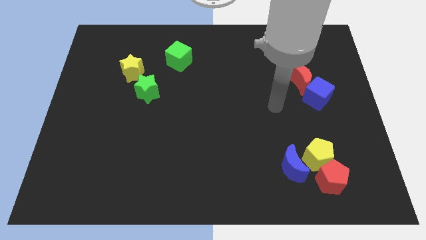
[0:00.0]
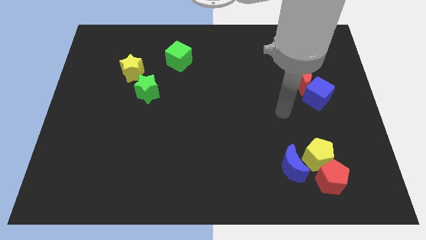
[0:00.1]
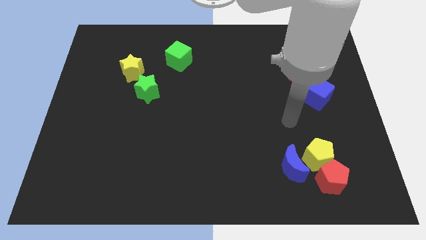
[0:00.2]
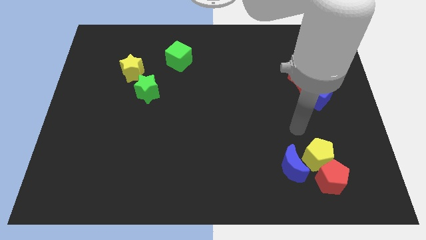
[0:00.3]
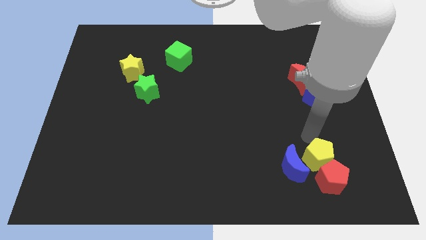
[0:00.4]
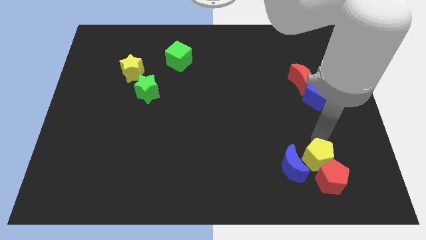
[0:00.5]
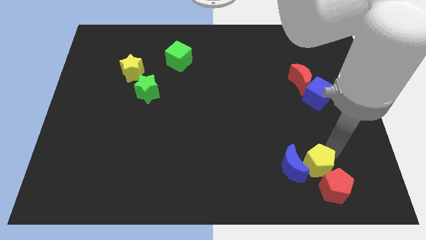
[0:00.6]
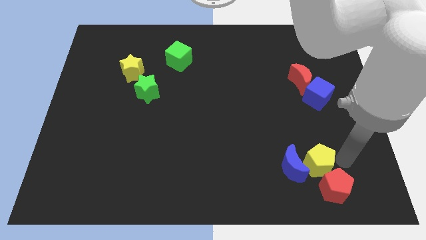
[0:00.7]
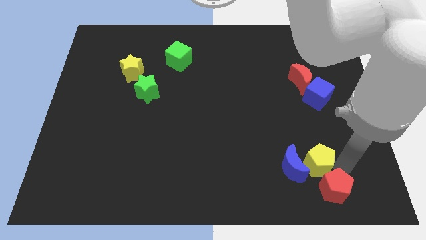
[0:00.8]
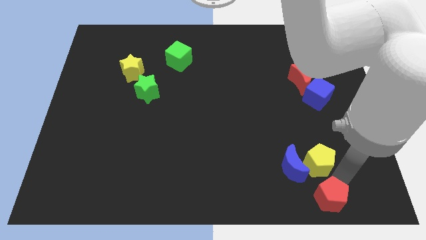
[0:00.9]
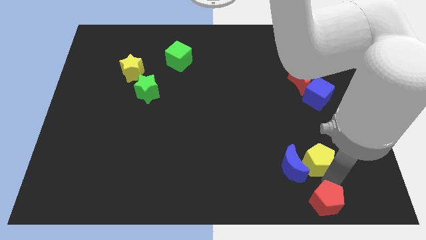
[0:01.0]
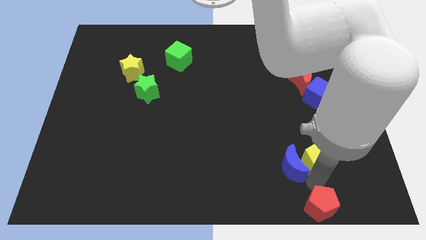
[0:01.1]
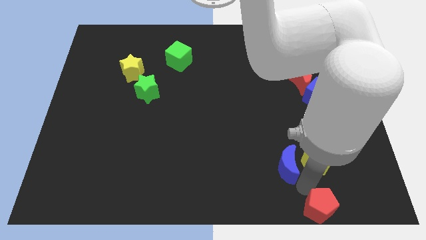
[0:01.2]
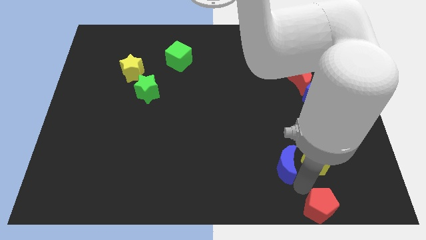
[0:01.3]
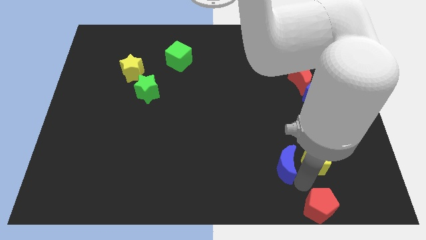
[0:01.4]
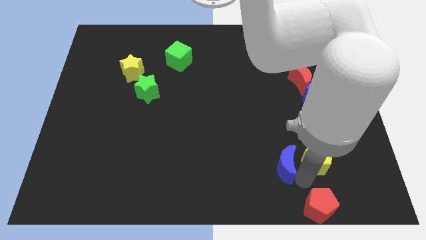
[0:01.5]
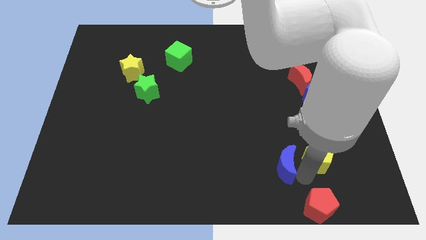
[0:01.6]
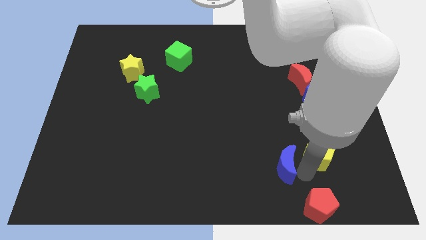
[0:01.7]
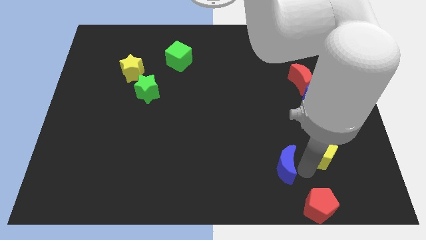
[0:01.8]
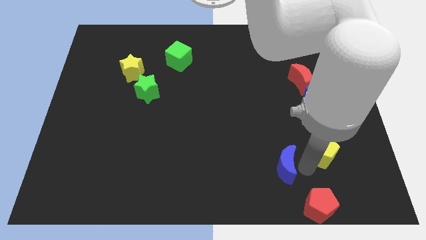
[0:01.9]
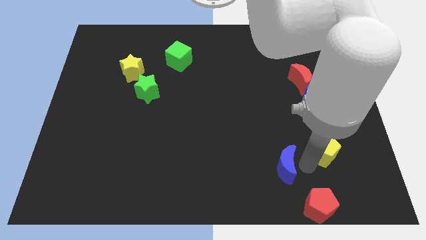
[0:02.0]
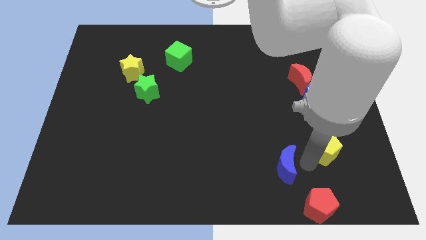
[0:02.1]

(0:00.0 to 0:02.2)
pull the yellow pentagon apart from the red pentagon and blue moon

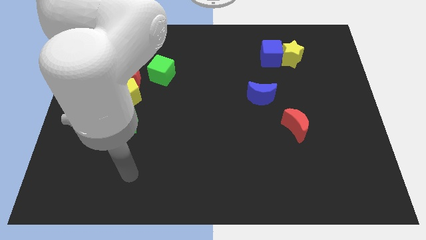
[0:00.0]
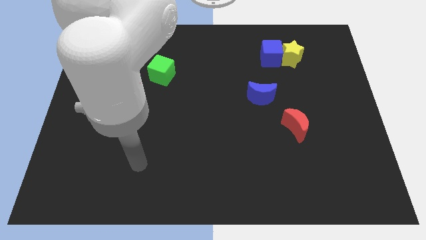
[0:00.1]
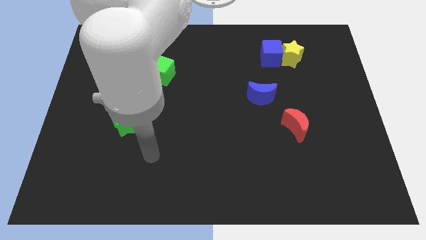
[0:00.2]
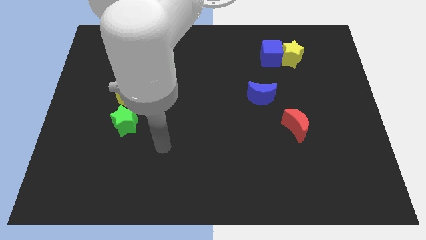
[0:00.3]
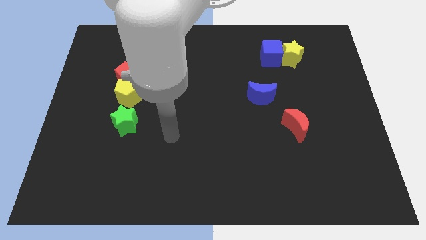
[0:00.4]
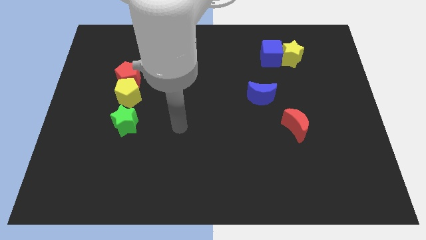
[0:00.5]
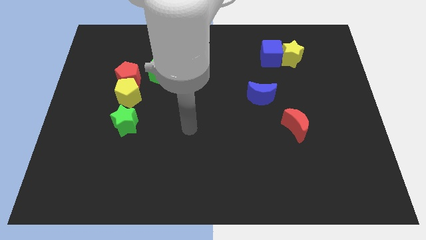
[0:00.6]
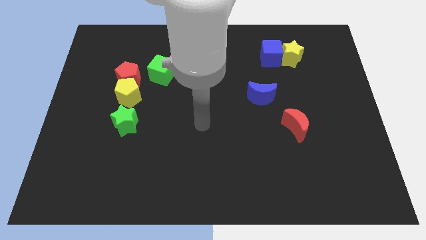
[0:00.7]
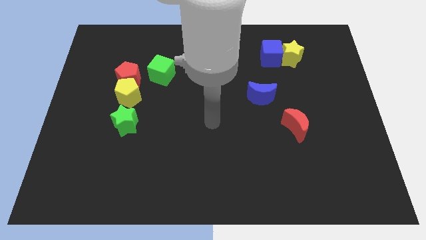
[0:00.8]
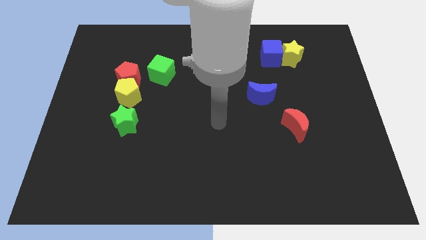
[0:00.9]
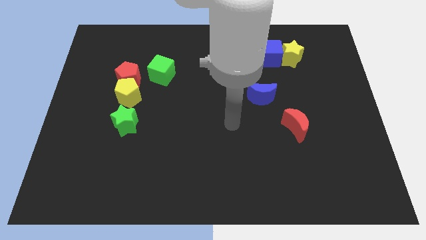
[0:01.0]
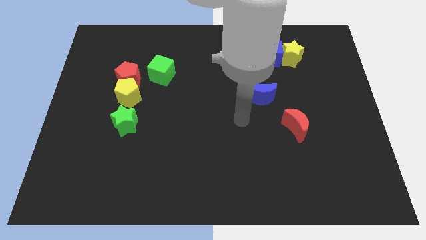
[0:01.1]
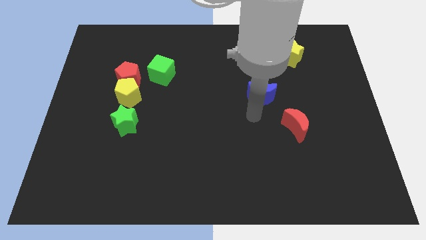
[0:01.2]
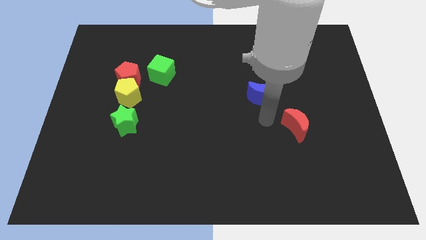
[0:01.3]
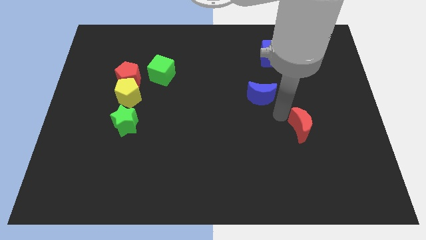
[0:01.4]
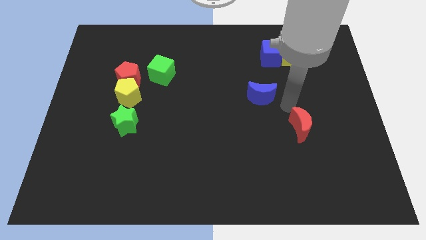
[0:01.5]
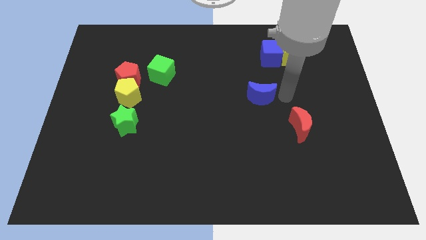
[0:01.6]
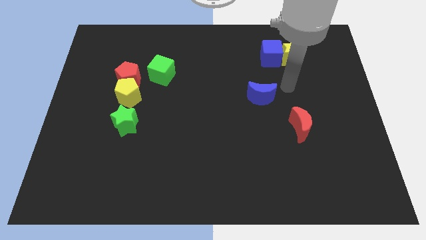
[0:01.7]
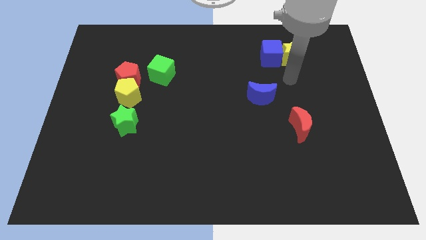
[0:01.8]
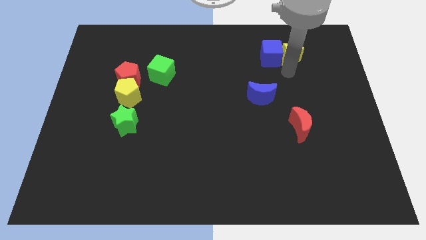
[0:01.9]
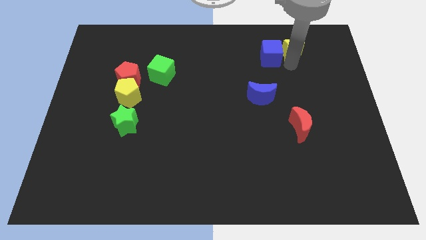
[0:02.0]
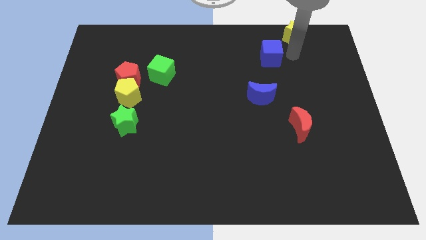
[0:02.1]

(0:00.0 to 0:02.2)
separate the blue cube from the yellow star

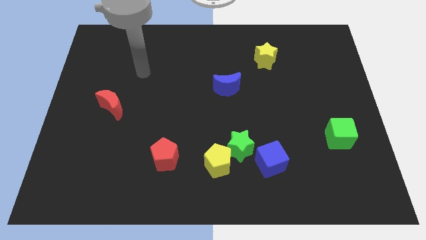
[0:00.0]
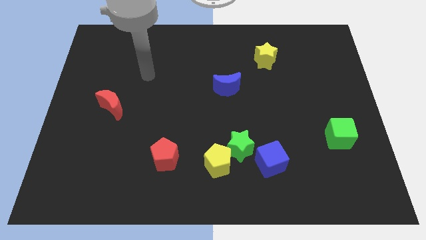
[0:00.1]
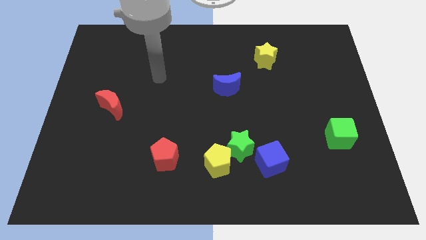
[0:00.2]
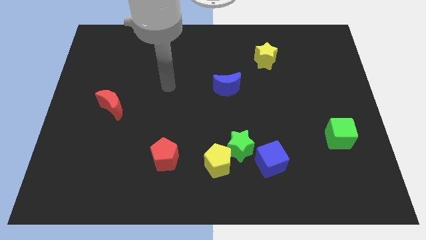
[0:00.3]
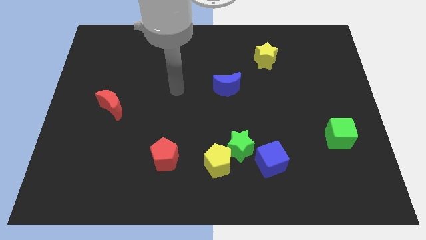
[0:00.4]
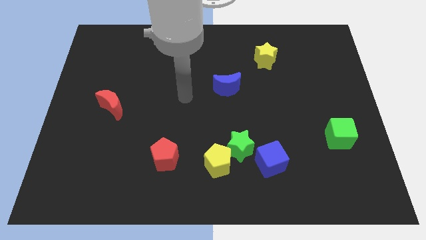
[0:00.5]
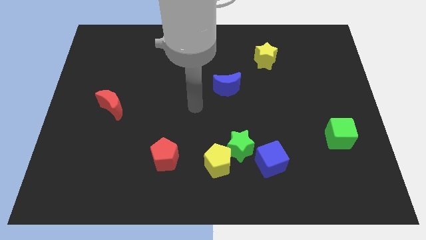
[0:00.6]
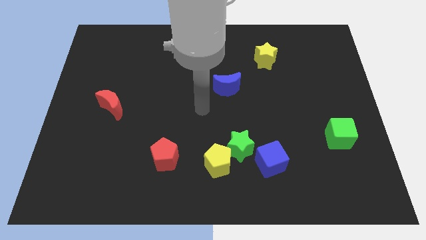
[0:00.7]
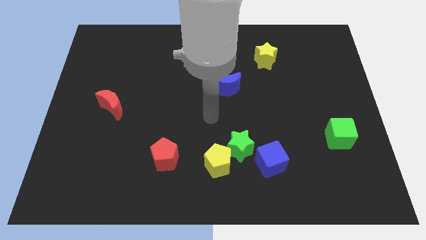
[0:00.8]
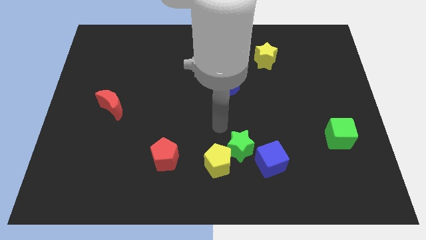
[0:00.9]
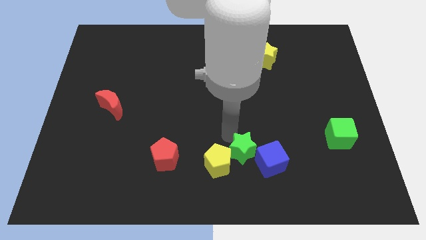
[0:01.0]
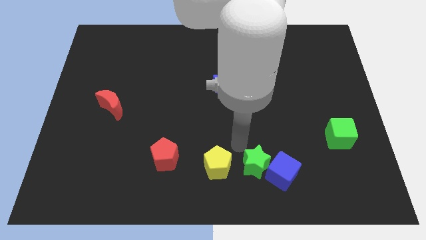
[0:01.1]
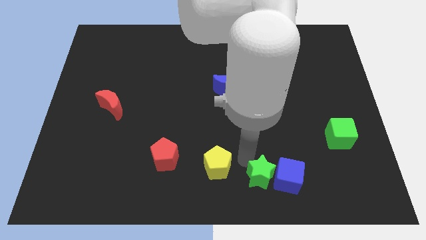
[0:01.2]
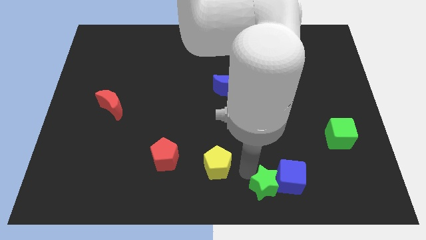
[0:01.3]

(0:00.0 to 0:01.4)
pull the yellow pentagon apart from the green star

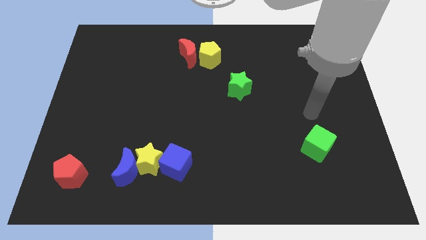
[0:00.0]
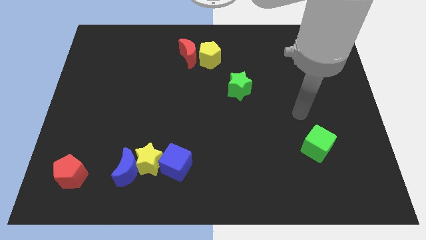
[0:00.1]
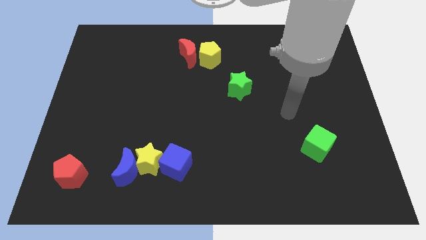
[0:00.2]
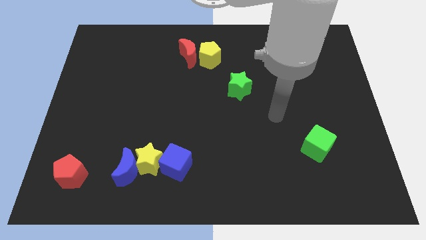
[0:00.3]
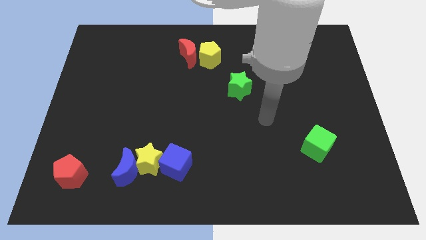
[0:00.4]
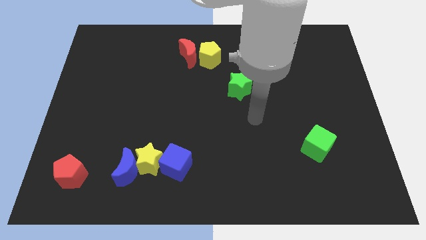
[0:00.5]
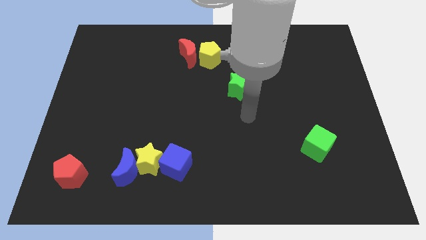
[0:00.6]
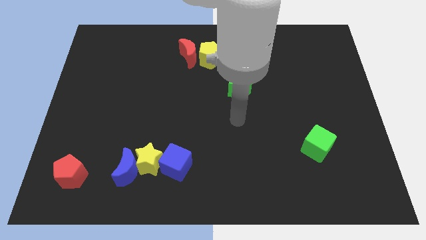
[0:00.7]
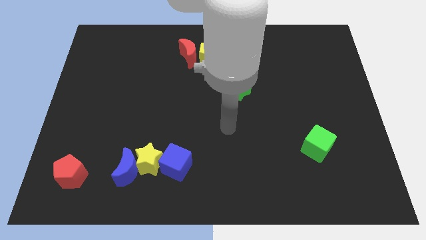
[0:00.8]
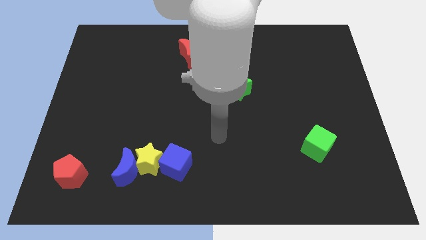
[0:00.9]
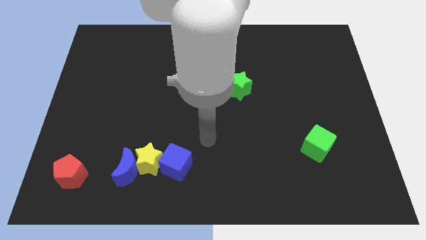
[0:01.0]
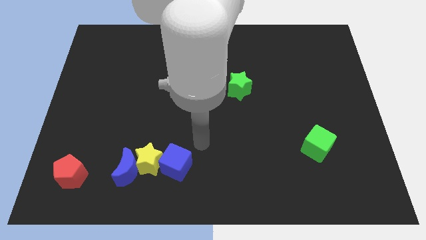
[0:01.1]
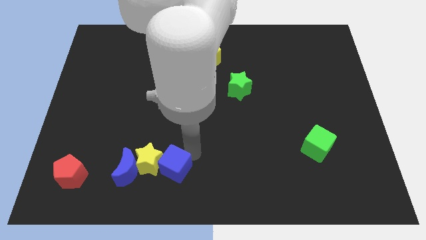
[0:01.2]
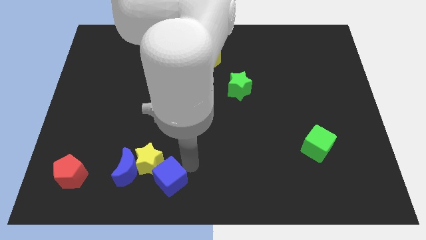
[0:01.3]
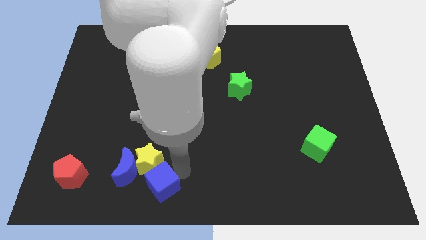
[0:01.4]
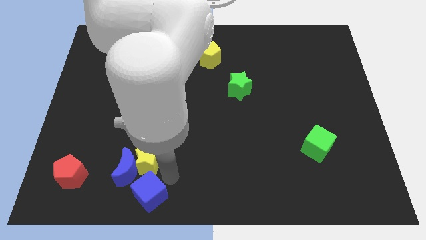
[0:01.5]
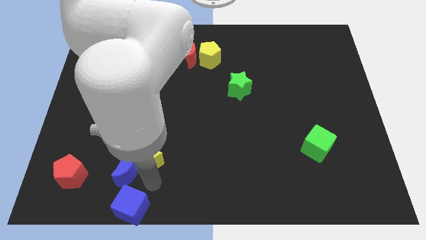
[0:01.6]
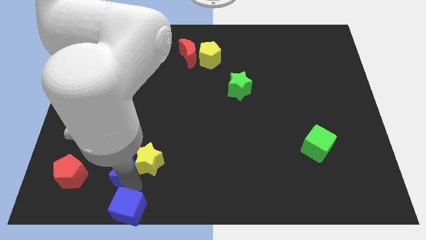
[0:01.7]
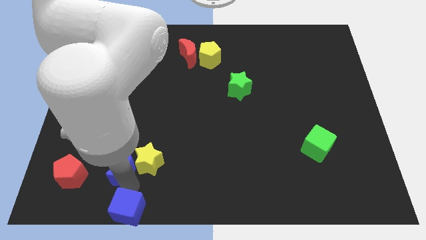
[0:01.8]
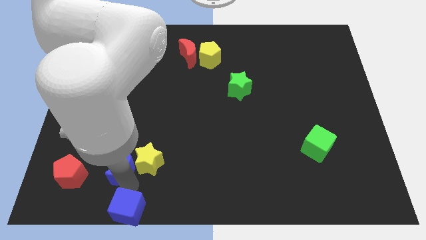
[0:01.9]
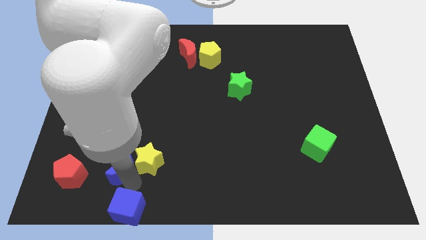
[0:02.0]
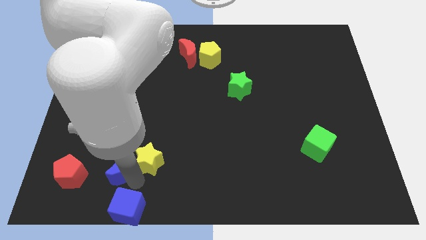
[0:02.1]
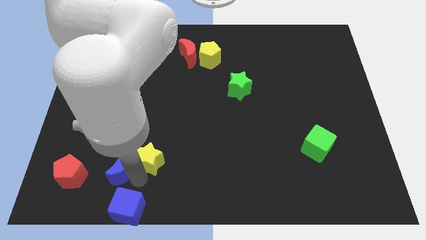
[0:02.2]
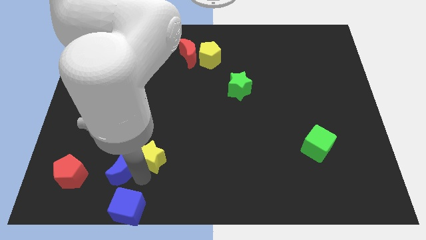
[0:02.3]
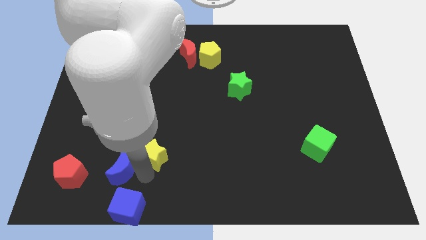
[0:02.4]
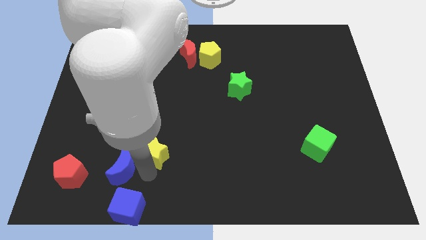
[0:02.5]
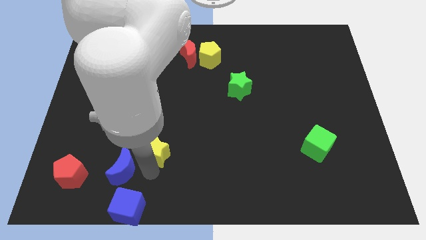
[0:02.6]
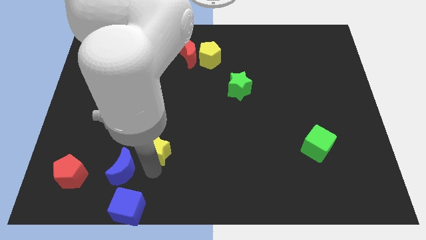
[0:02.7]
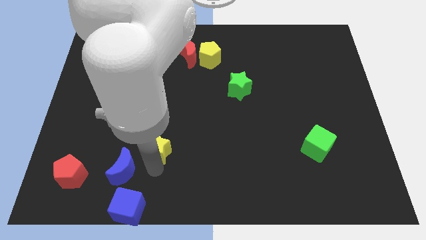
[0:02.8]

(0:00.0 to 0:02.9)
pull the yellow star apart from the blue moon and blue cube

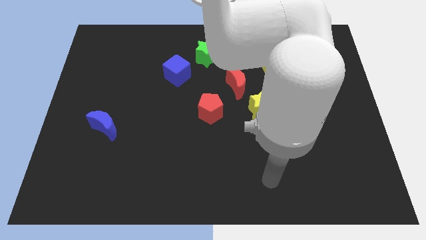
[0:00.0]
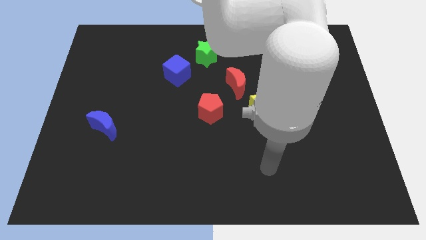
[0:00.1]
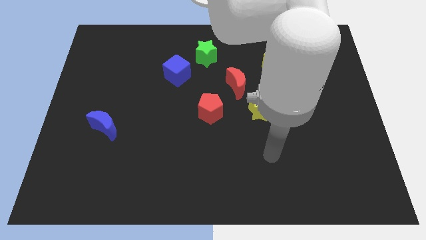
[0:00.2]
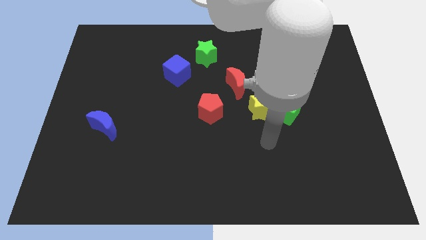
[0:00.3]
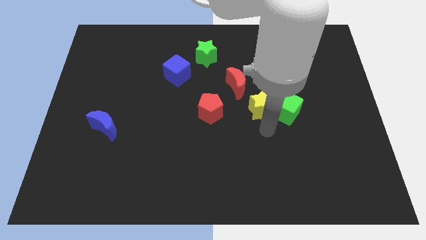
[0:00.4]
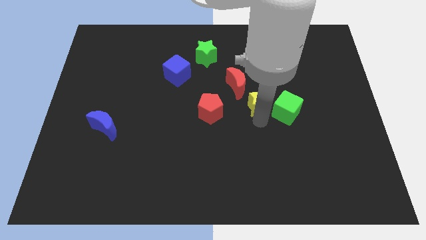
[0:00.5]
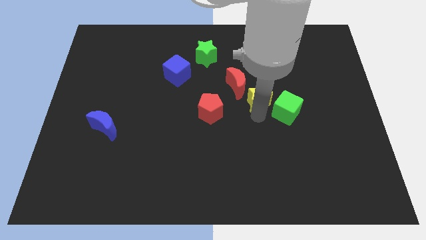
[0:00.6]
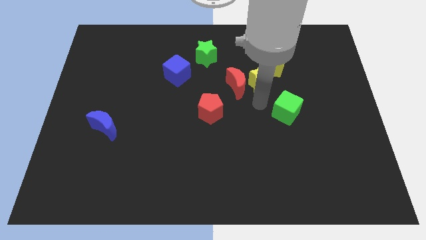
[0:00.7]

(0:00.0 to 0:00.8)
separate the green cube from the yellow star
